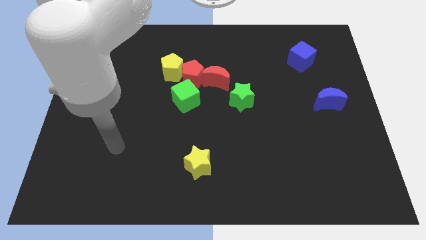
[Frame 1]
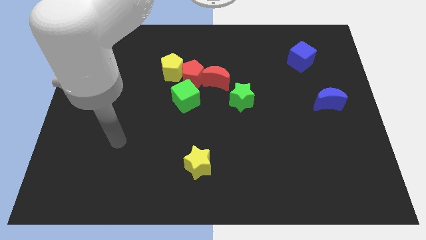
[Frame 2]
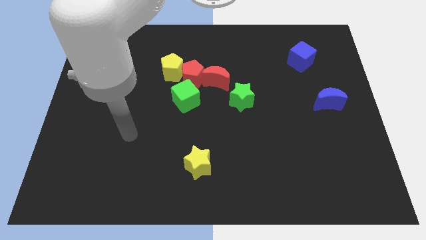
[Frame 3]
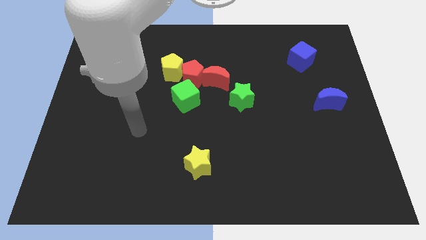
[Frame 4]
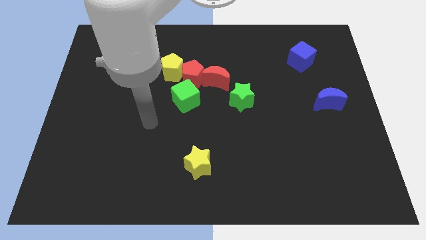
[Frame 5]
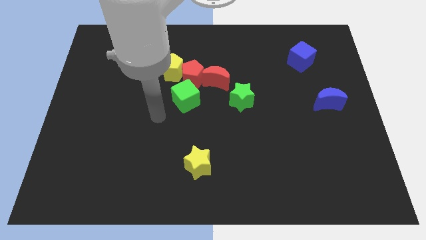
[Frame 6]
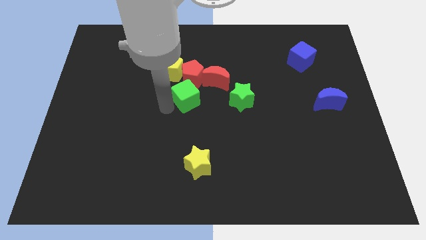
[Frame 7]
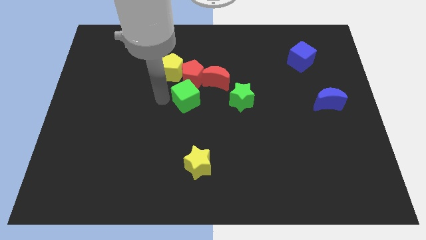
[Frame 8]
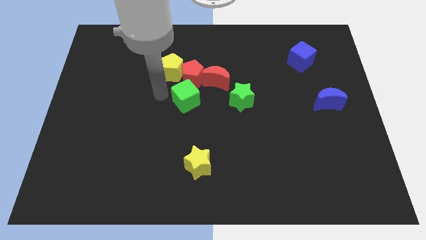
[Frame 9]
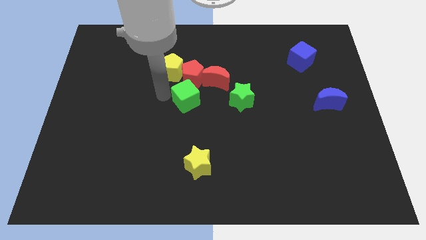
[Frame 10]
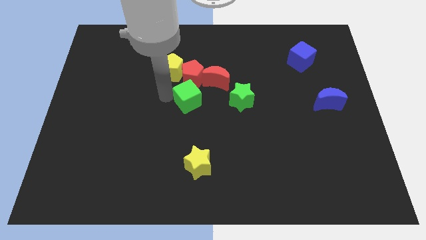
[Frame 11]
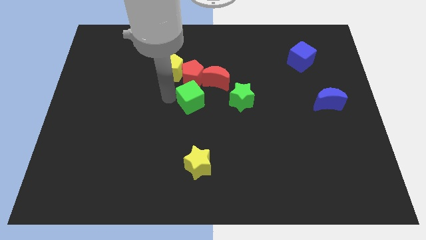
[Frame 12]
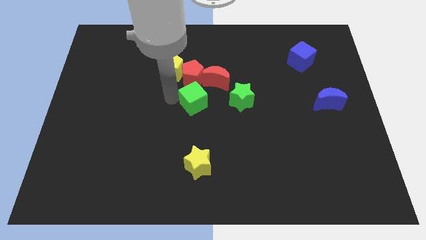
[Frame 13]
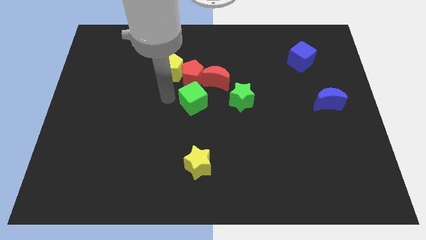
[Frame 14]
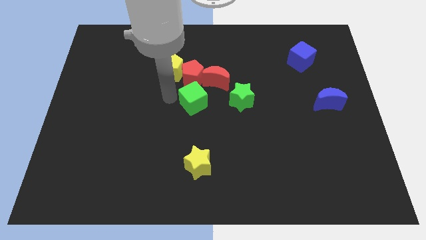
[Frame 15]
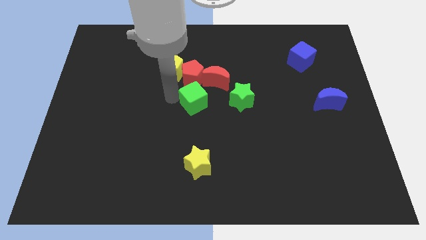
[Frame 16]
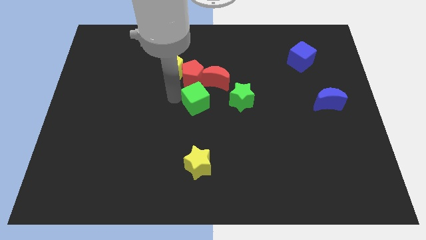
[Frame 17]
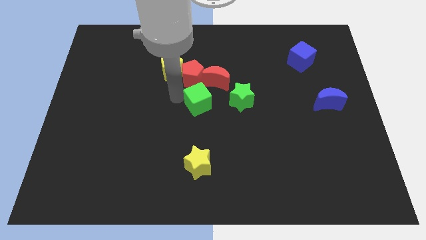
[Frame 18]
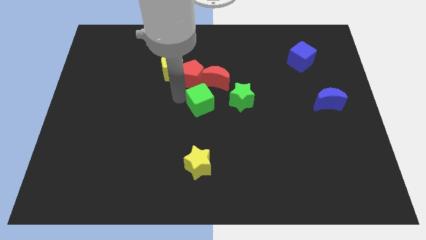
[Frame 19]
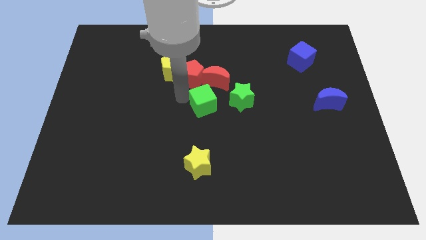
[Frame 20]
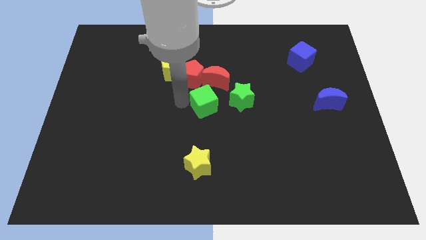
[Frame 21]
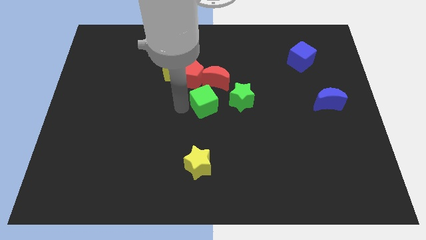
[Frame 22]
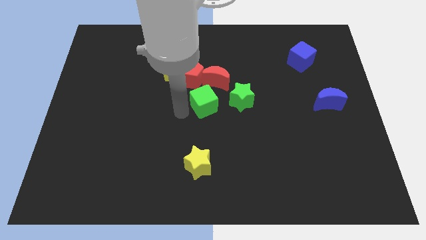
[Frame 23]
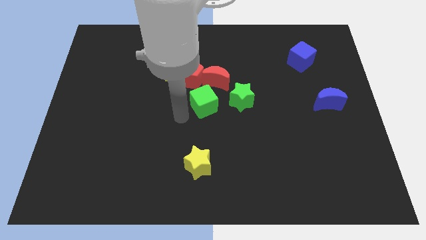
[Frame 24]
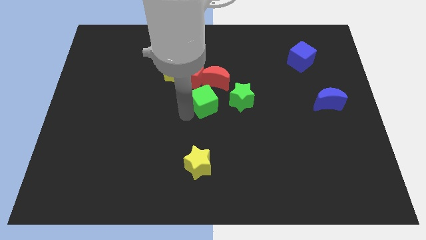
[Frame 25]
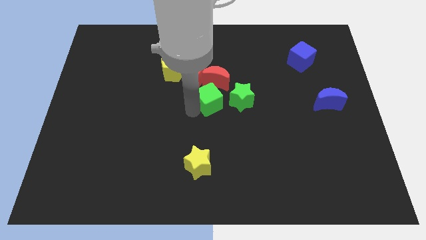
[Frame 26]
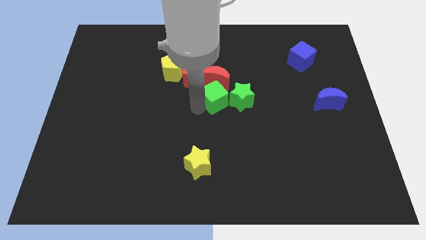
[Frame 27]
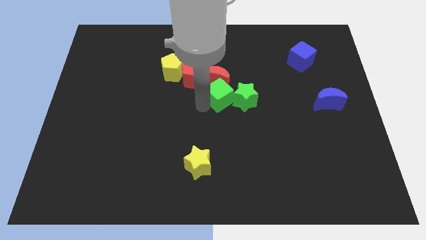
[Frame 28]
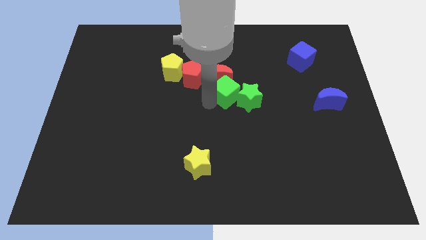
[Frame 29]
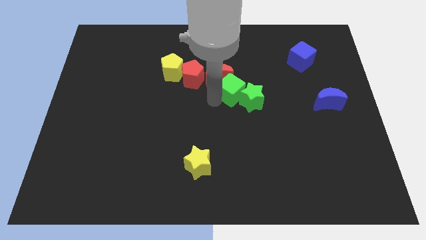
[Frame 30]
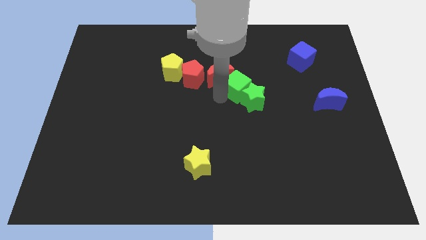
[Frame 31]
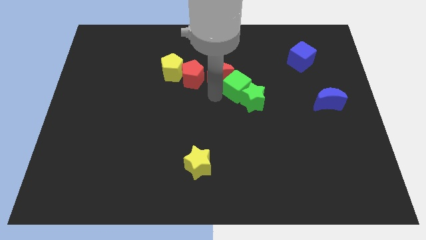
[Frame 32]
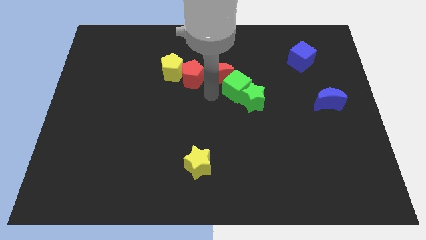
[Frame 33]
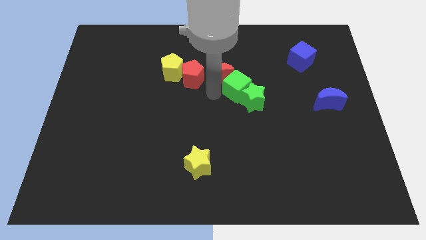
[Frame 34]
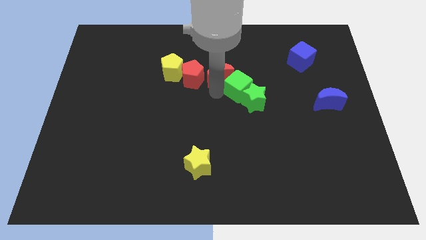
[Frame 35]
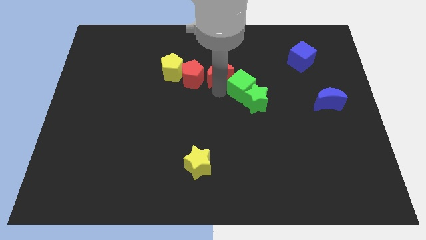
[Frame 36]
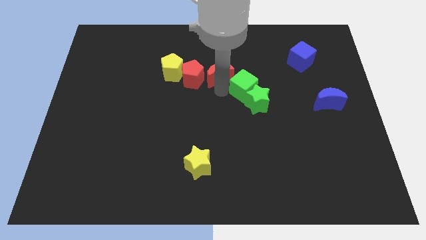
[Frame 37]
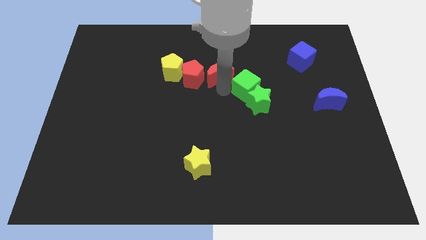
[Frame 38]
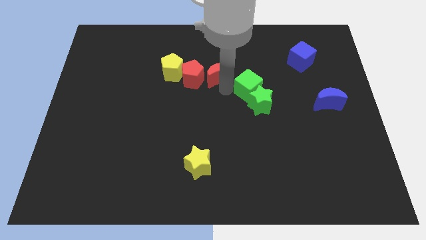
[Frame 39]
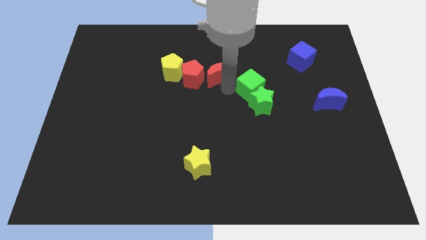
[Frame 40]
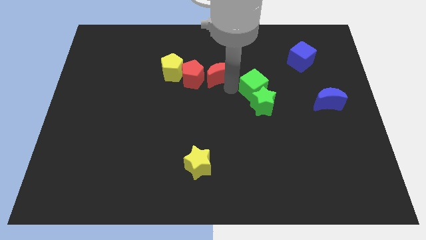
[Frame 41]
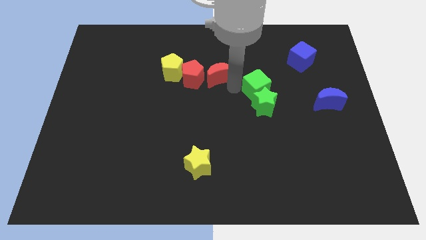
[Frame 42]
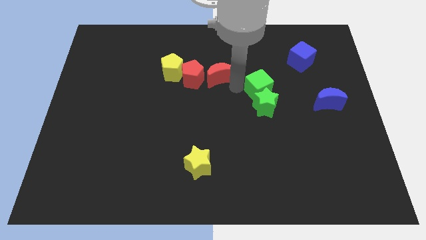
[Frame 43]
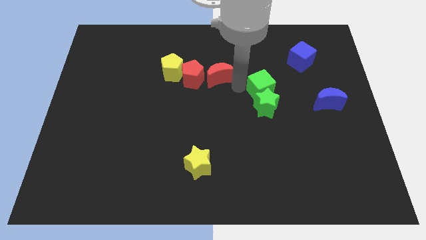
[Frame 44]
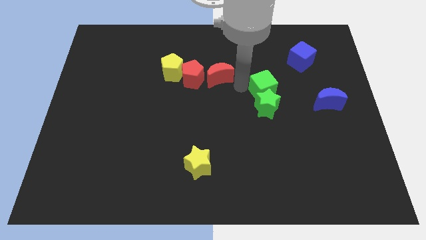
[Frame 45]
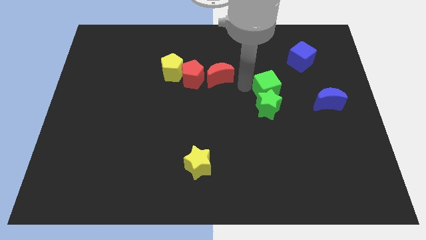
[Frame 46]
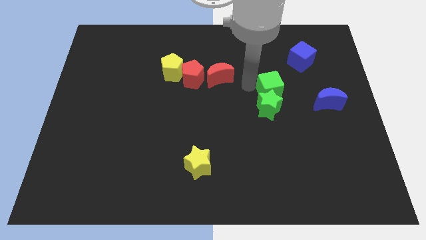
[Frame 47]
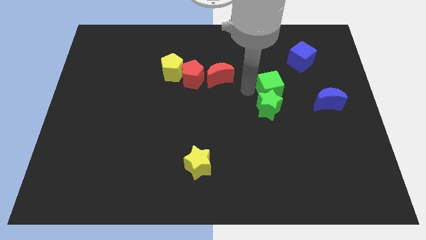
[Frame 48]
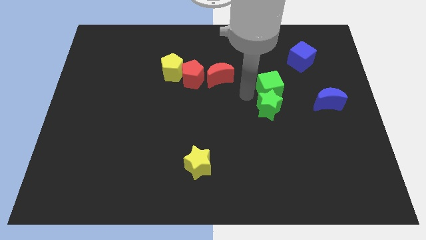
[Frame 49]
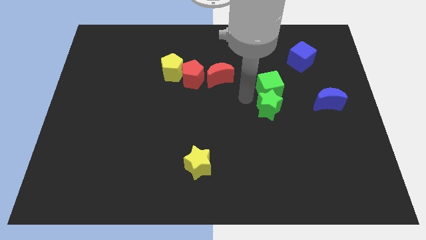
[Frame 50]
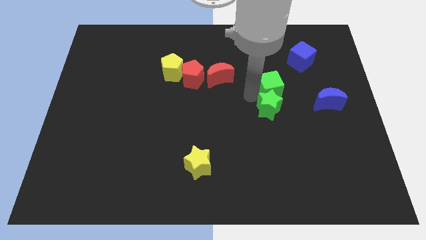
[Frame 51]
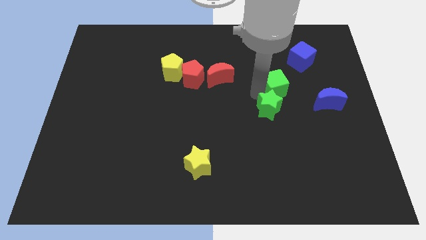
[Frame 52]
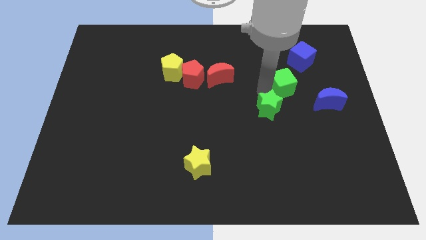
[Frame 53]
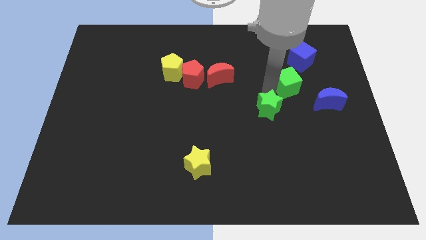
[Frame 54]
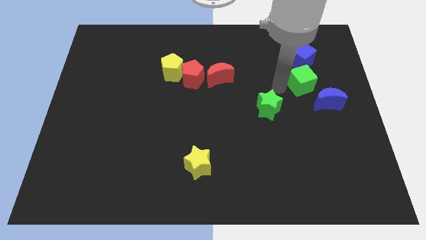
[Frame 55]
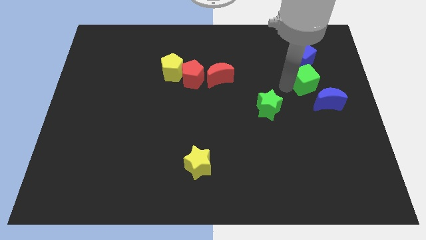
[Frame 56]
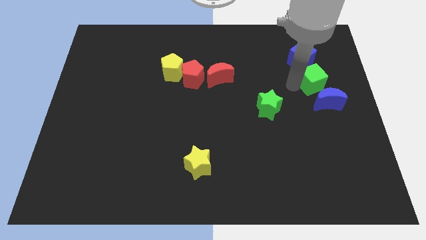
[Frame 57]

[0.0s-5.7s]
push the green cube to the bottom right side of the blue cube

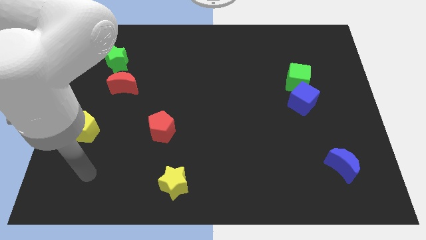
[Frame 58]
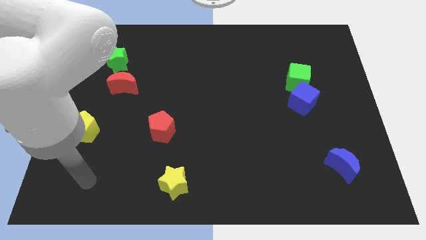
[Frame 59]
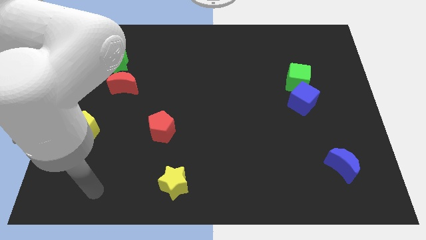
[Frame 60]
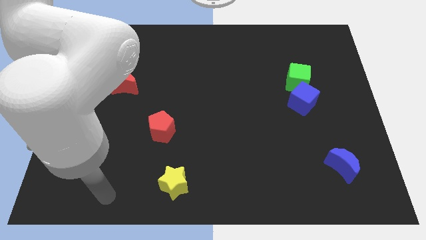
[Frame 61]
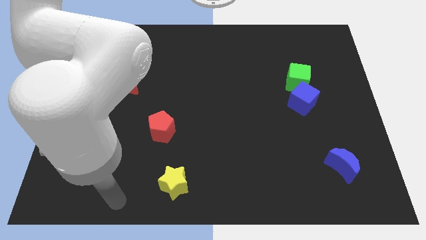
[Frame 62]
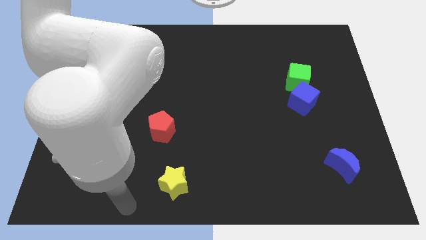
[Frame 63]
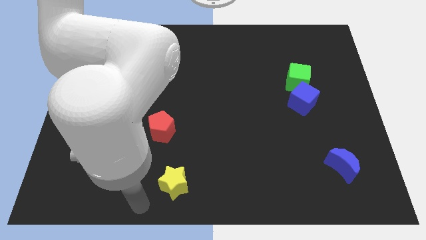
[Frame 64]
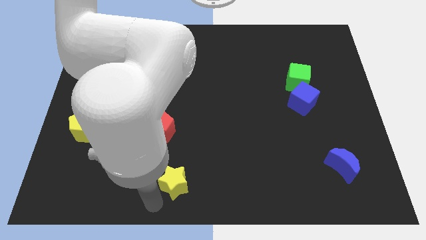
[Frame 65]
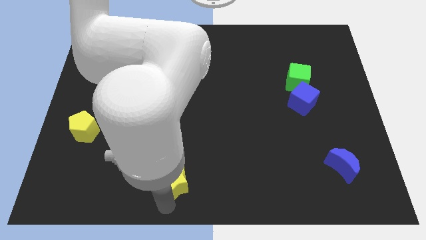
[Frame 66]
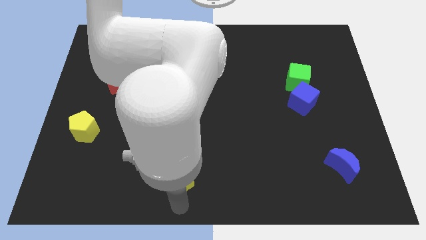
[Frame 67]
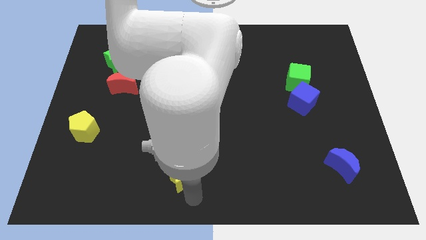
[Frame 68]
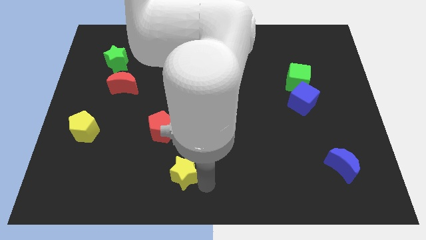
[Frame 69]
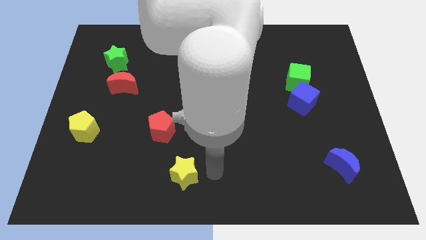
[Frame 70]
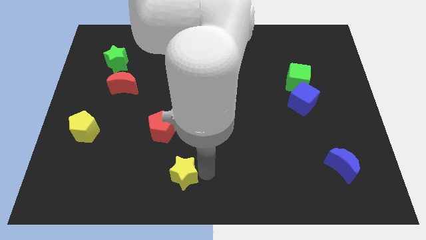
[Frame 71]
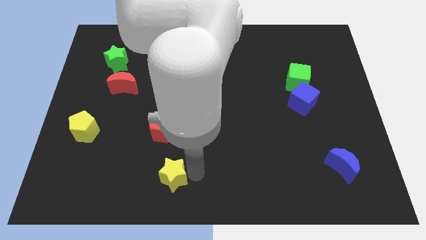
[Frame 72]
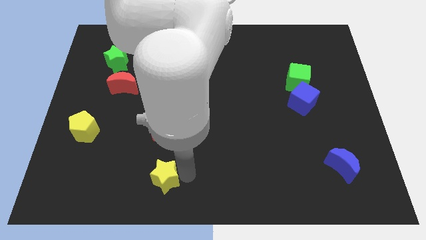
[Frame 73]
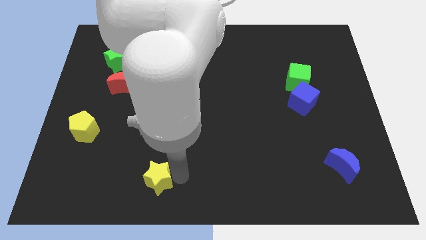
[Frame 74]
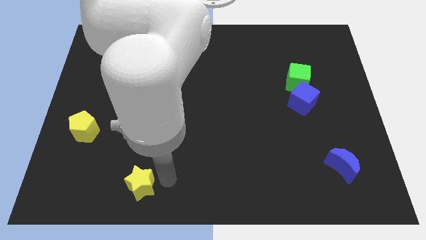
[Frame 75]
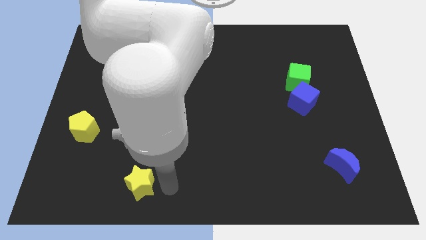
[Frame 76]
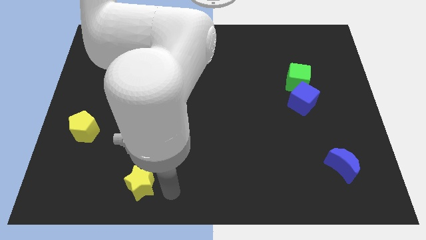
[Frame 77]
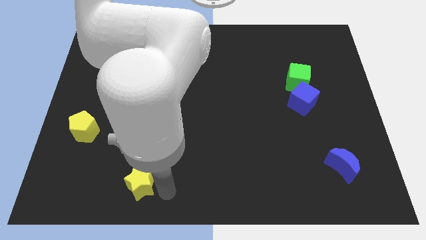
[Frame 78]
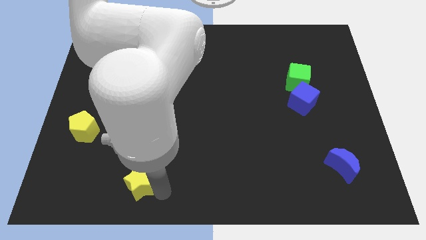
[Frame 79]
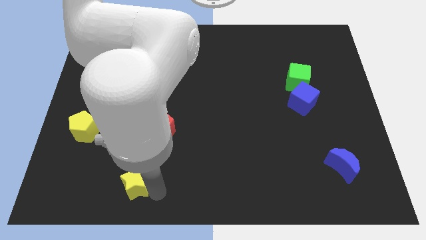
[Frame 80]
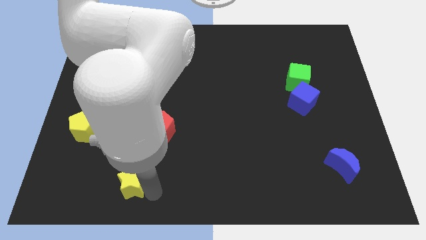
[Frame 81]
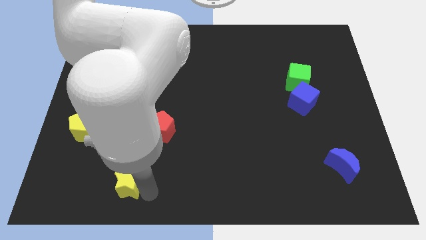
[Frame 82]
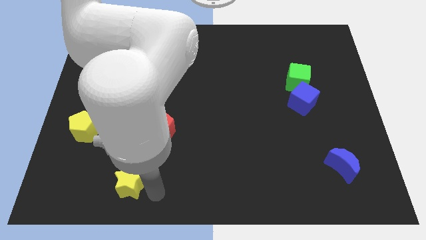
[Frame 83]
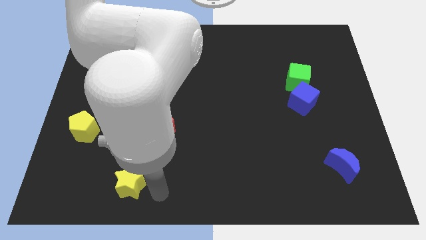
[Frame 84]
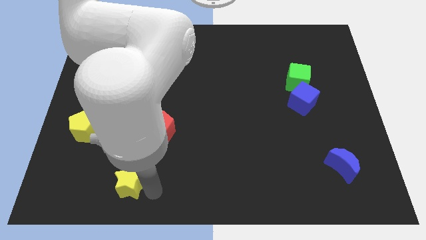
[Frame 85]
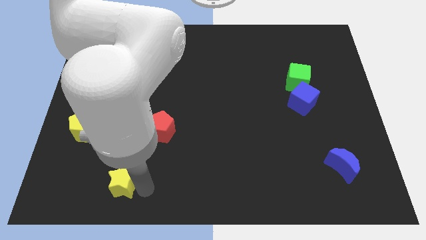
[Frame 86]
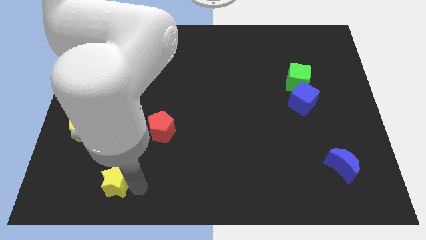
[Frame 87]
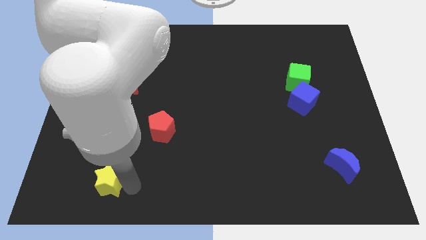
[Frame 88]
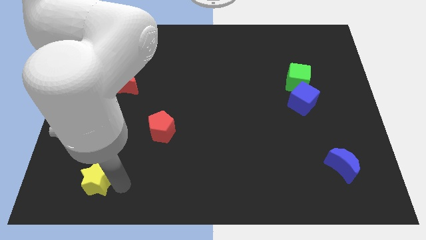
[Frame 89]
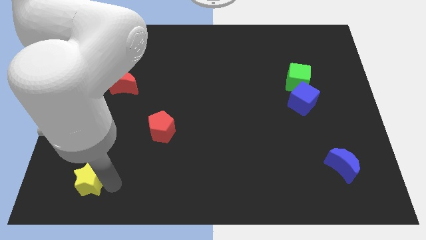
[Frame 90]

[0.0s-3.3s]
put the yellow star to the bottom side of the yellow pentagon
